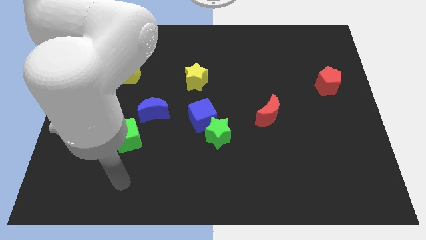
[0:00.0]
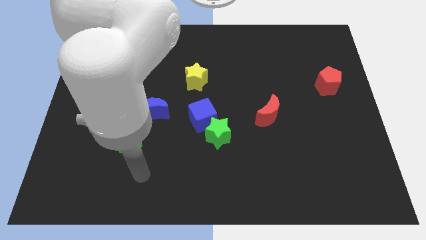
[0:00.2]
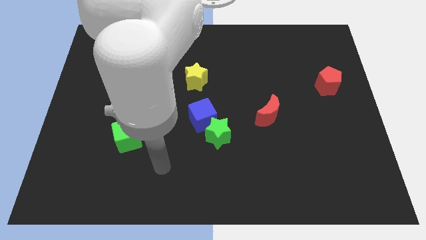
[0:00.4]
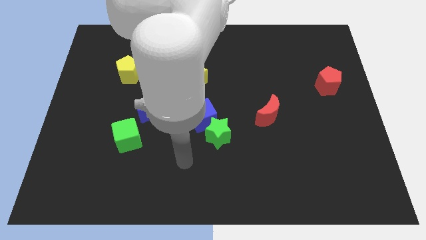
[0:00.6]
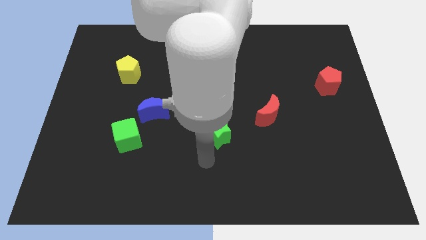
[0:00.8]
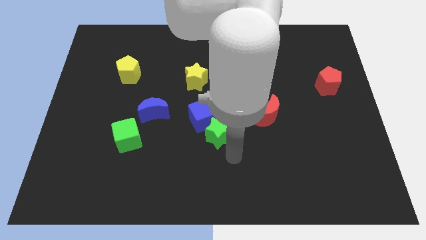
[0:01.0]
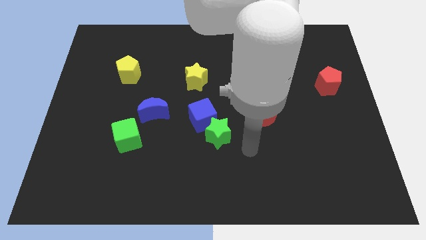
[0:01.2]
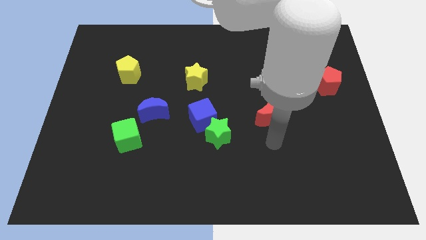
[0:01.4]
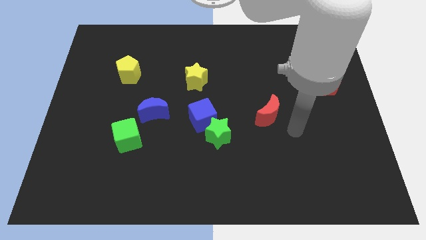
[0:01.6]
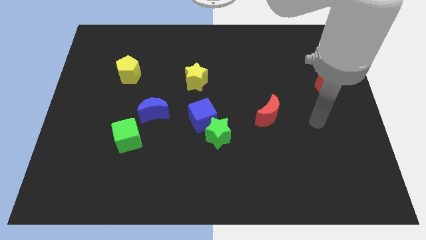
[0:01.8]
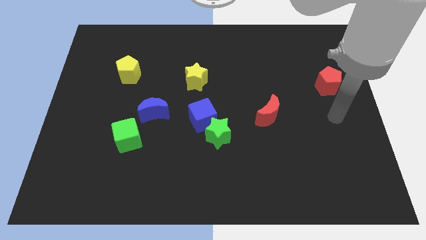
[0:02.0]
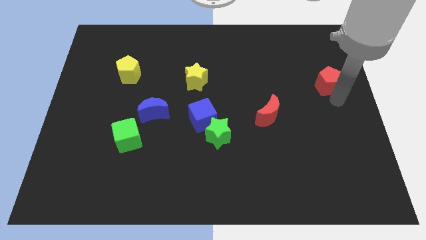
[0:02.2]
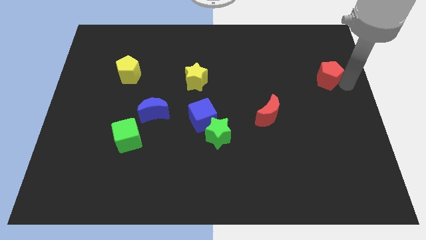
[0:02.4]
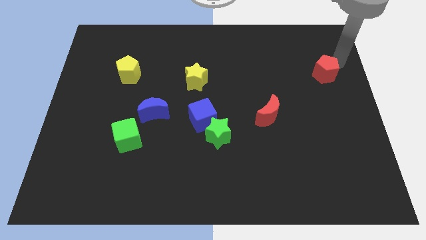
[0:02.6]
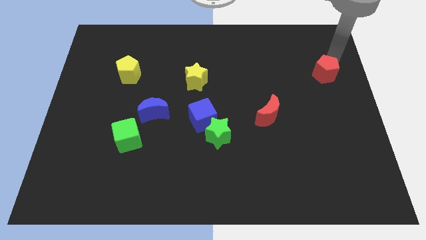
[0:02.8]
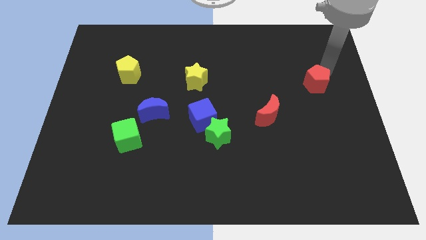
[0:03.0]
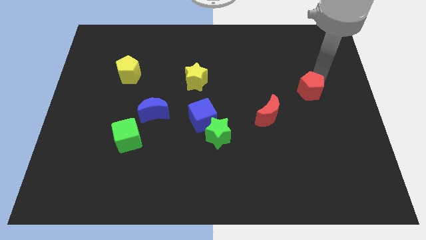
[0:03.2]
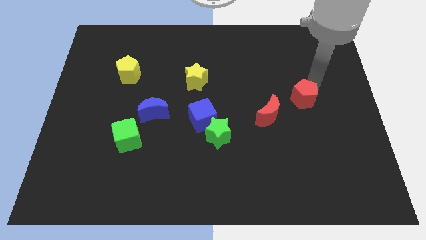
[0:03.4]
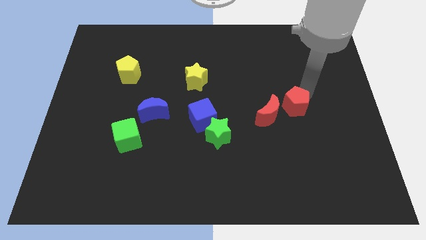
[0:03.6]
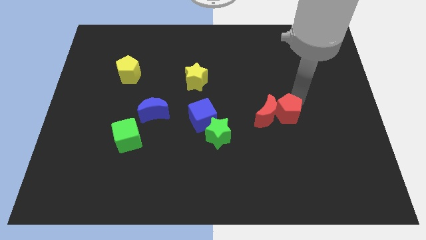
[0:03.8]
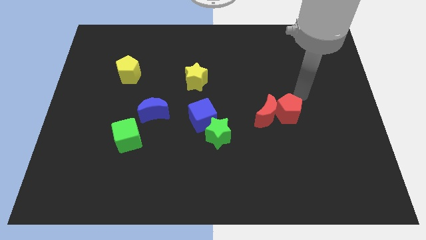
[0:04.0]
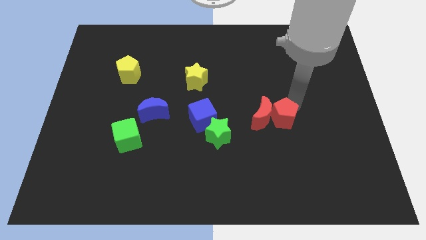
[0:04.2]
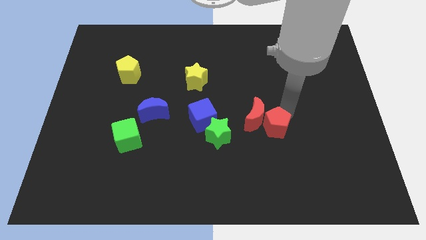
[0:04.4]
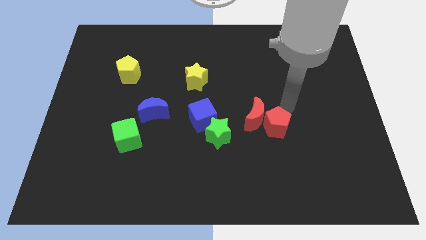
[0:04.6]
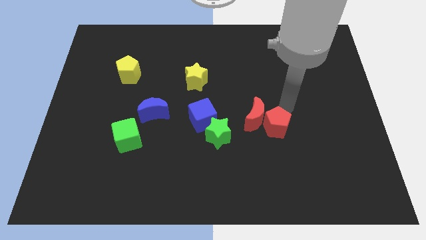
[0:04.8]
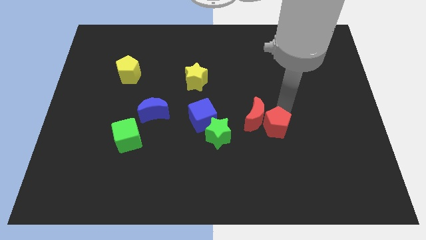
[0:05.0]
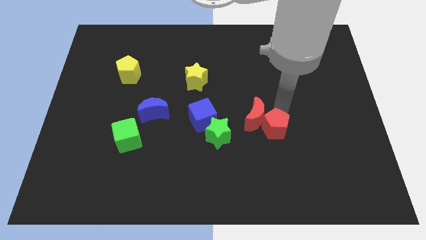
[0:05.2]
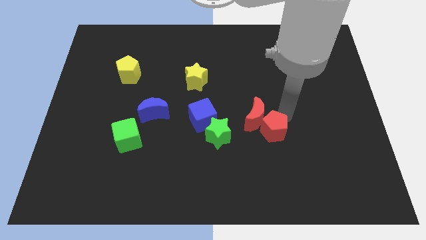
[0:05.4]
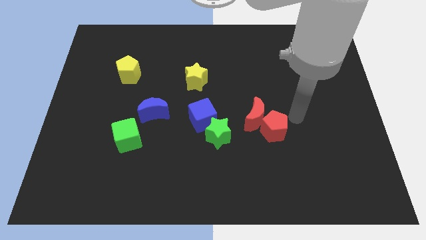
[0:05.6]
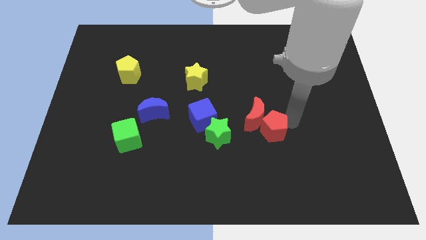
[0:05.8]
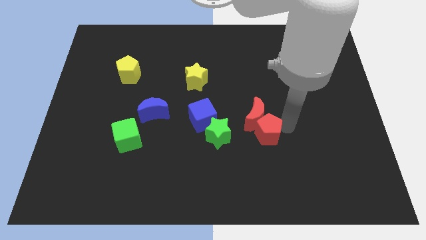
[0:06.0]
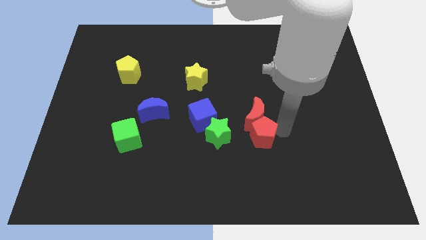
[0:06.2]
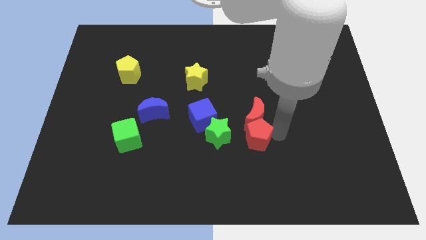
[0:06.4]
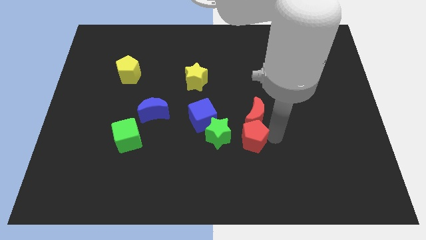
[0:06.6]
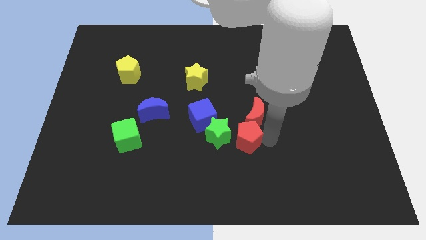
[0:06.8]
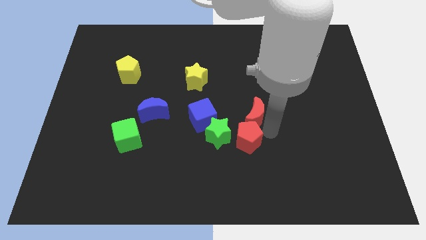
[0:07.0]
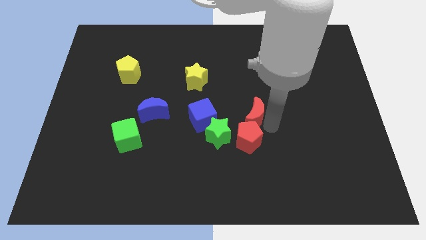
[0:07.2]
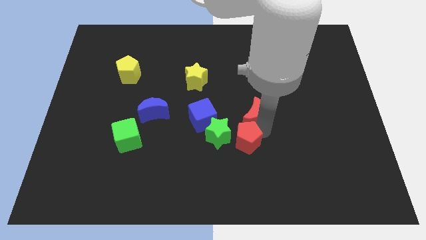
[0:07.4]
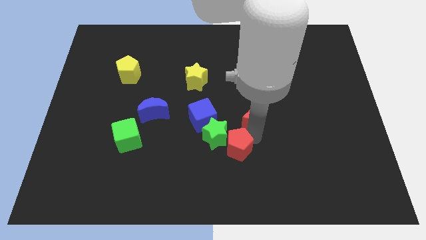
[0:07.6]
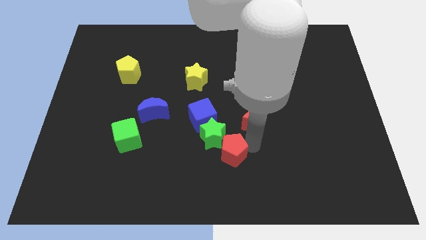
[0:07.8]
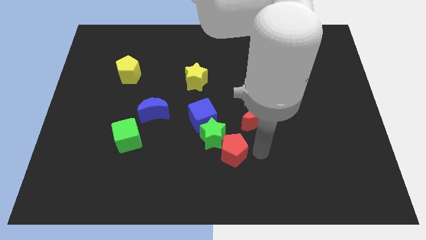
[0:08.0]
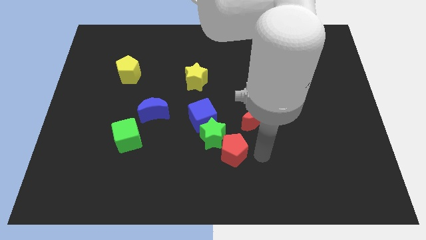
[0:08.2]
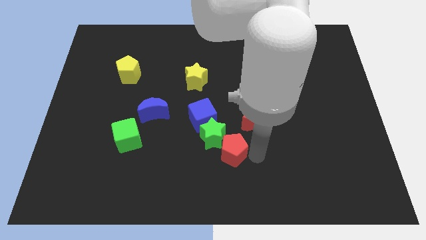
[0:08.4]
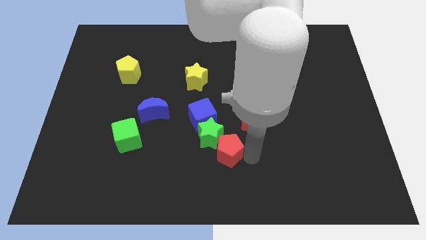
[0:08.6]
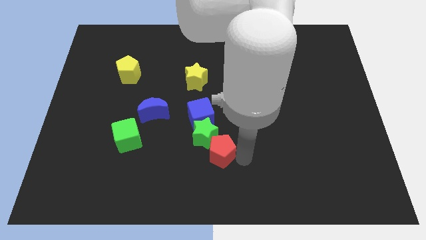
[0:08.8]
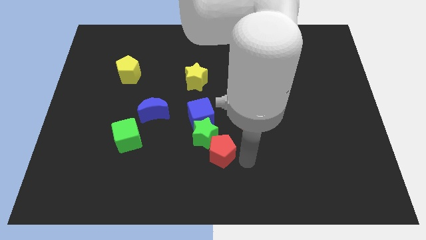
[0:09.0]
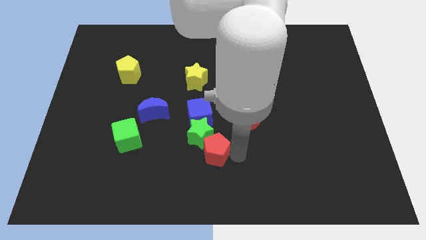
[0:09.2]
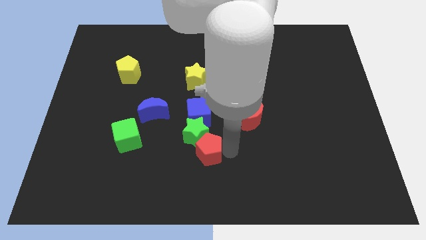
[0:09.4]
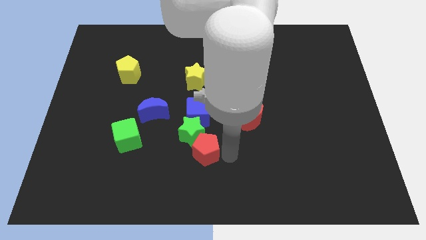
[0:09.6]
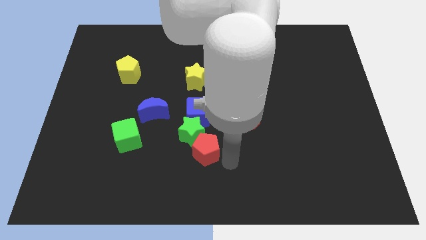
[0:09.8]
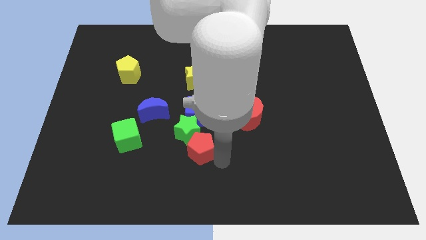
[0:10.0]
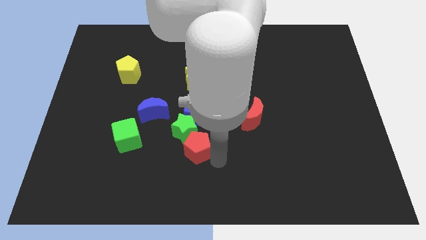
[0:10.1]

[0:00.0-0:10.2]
push the red pentagon to the right side of the green cube

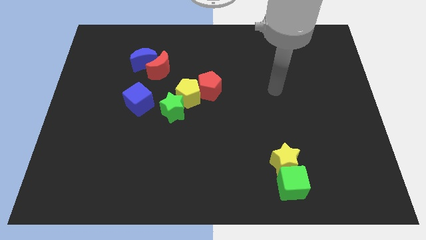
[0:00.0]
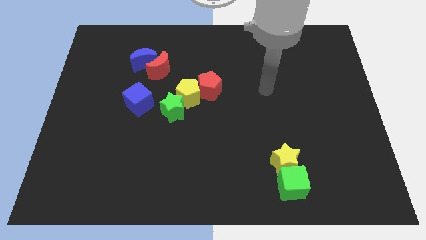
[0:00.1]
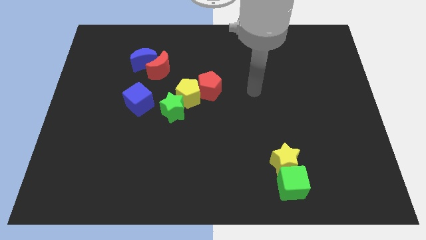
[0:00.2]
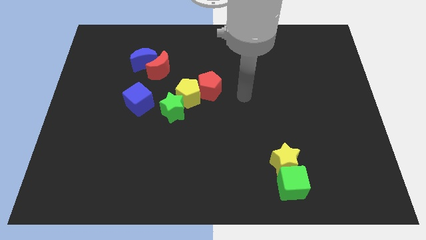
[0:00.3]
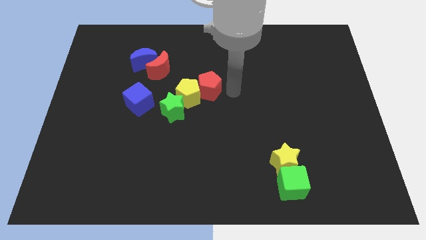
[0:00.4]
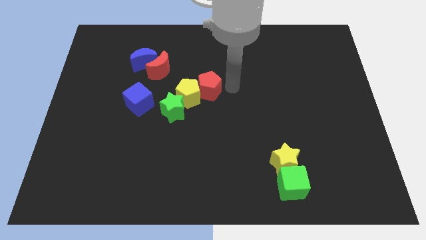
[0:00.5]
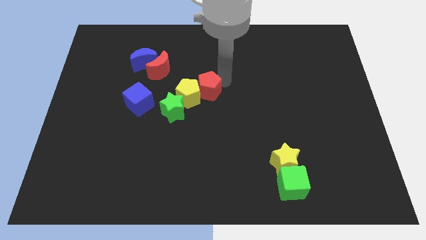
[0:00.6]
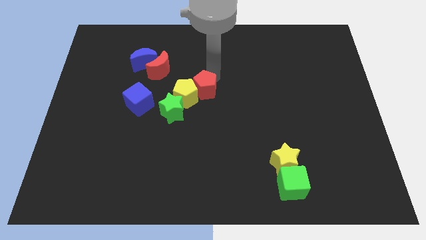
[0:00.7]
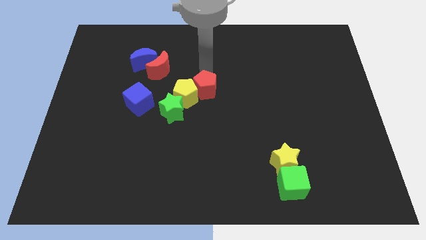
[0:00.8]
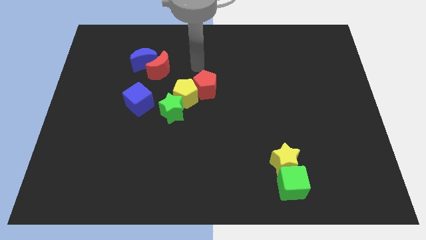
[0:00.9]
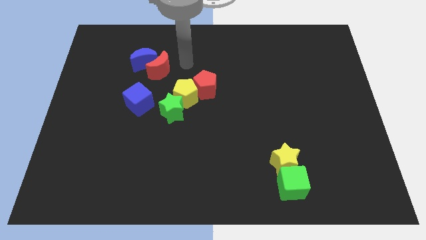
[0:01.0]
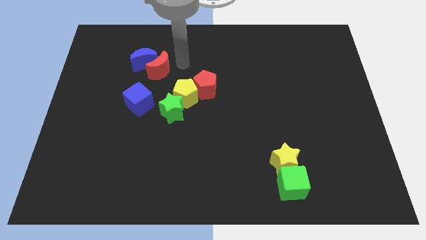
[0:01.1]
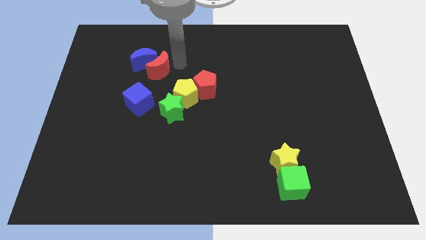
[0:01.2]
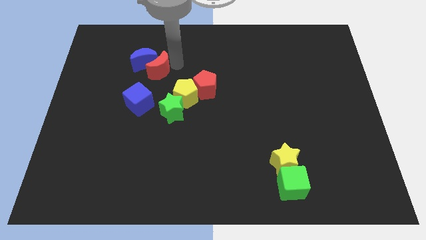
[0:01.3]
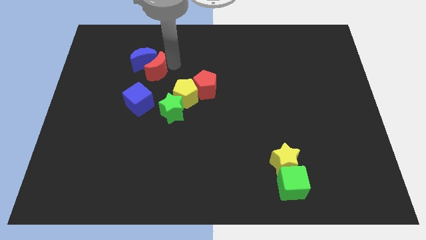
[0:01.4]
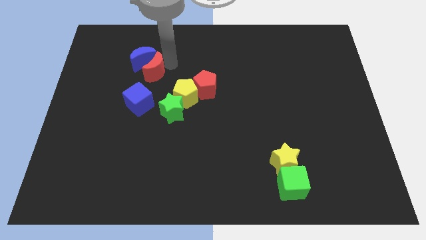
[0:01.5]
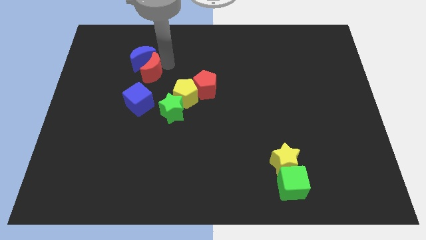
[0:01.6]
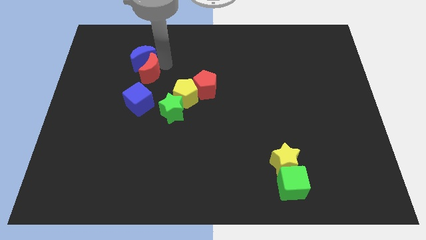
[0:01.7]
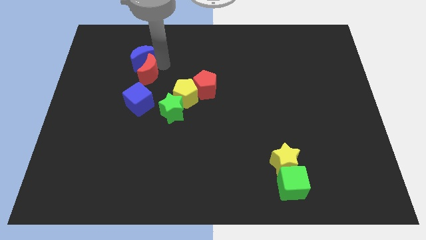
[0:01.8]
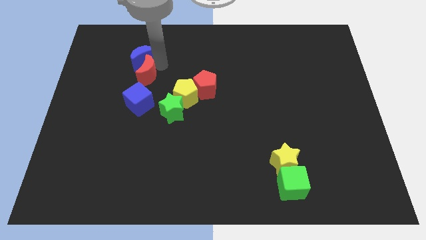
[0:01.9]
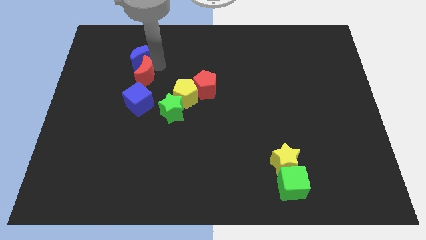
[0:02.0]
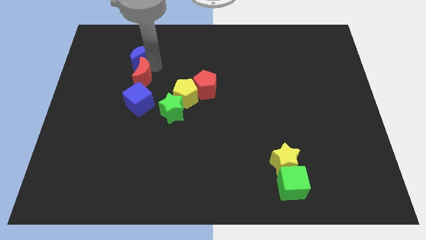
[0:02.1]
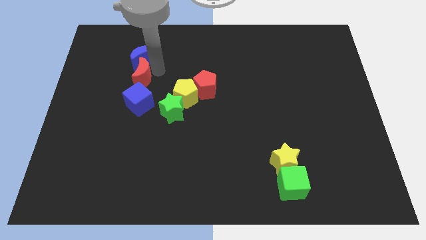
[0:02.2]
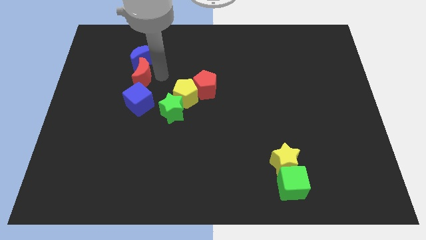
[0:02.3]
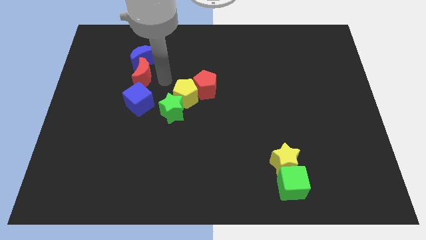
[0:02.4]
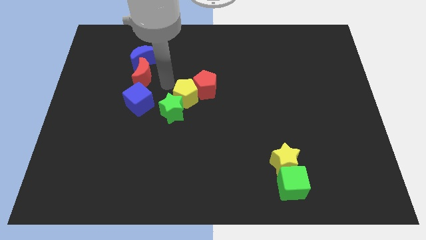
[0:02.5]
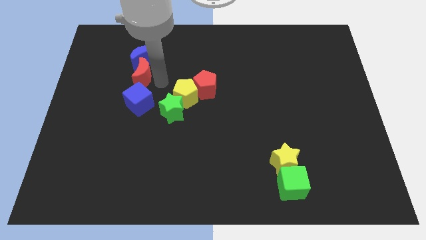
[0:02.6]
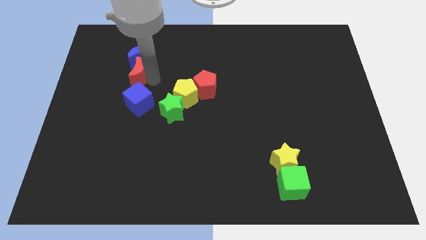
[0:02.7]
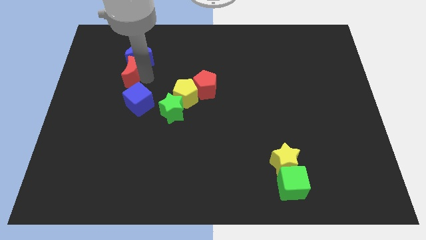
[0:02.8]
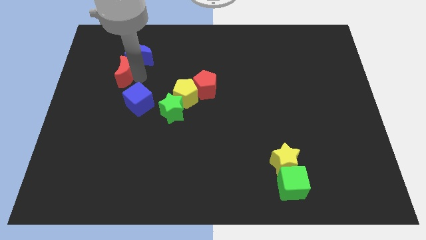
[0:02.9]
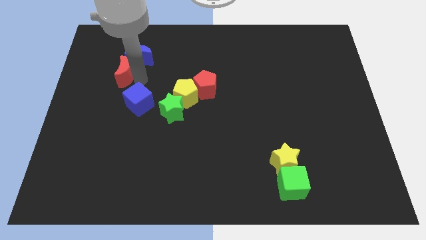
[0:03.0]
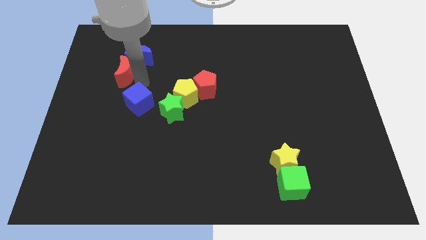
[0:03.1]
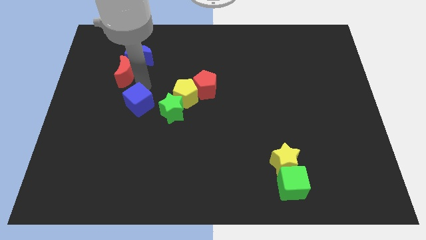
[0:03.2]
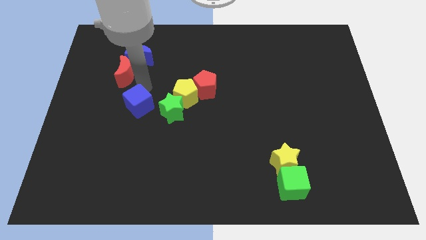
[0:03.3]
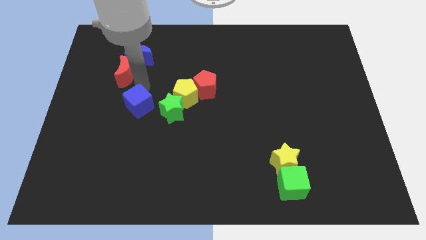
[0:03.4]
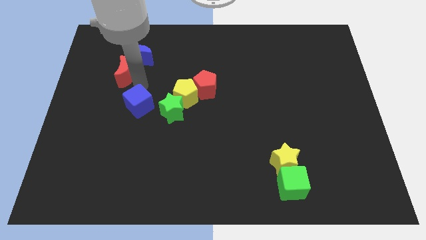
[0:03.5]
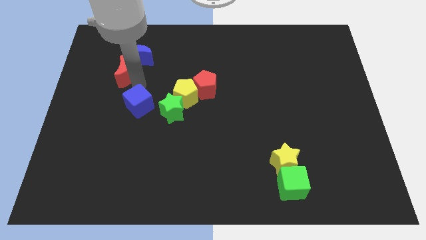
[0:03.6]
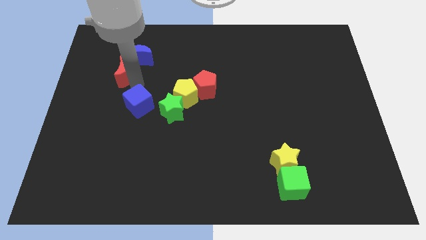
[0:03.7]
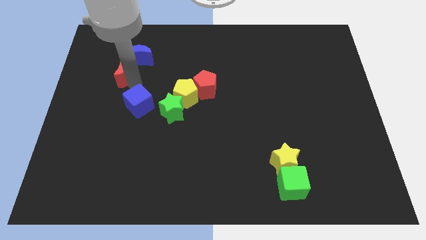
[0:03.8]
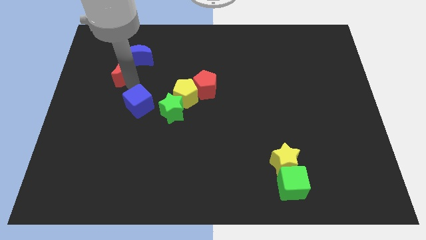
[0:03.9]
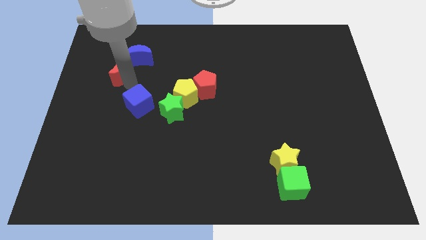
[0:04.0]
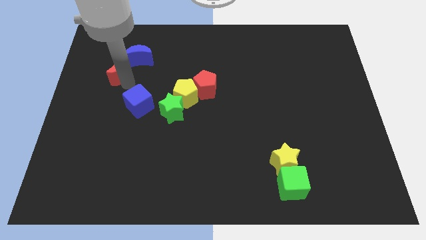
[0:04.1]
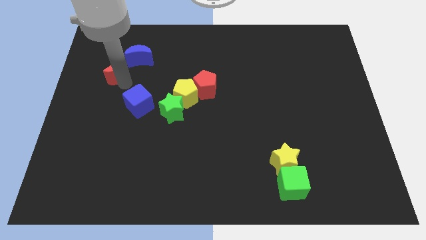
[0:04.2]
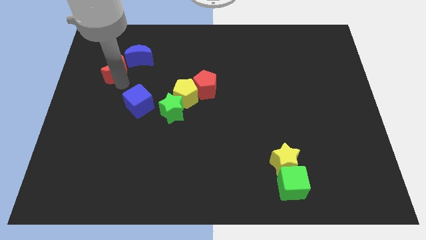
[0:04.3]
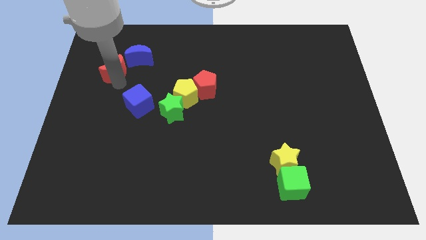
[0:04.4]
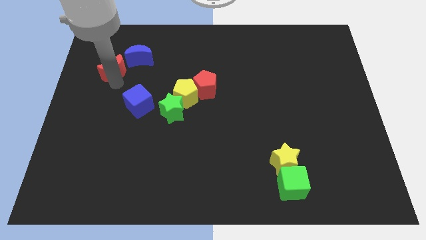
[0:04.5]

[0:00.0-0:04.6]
move the red moon just left of the blue moon
